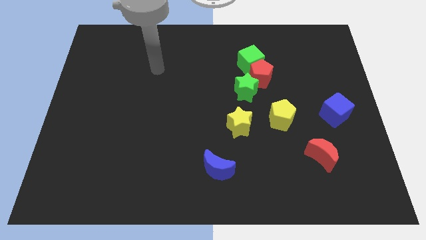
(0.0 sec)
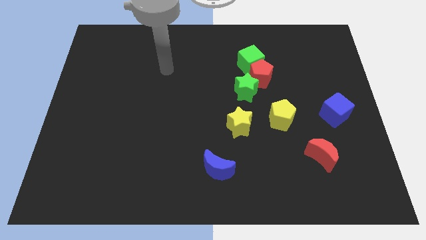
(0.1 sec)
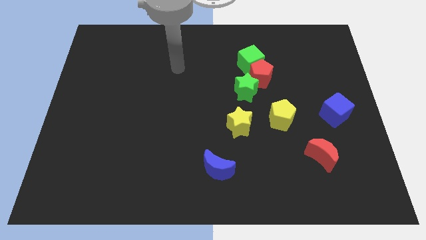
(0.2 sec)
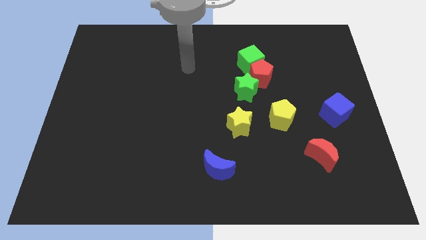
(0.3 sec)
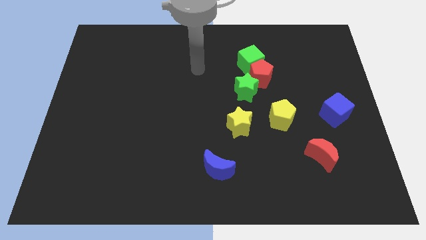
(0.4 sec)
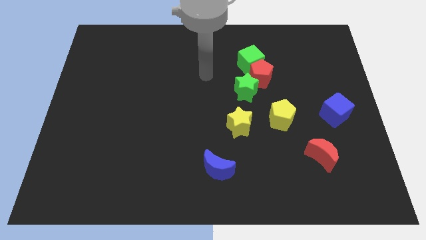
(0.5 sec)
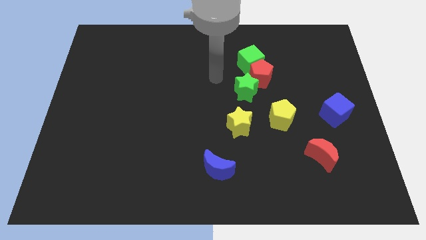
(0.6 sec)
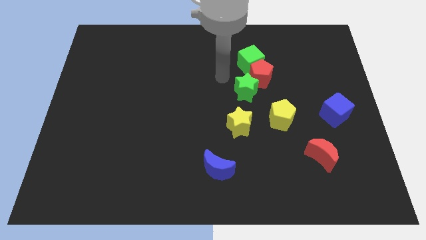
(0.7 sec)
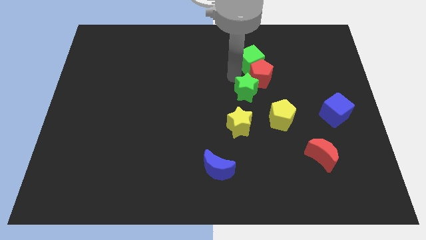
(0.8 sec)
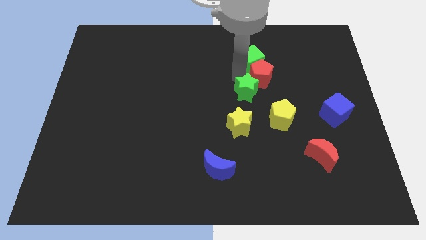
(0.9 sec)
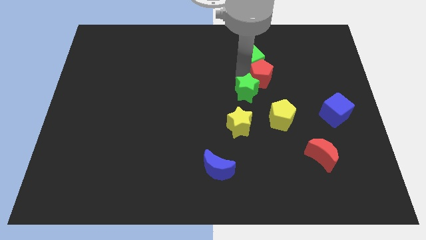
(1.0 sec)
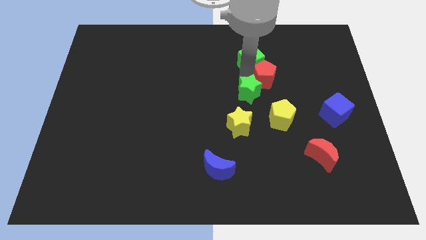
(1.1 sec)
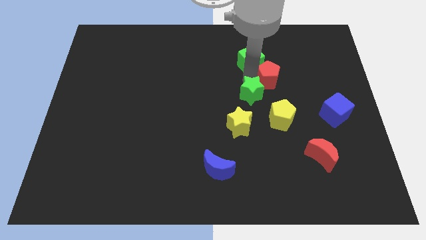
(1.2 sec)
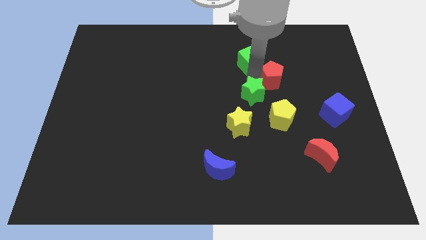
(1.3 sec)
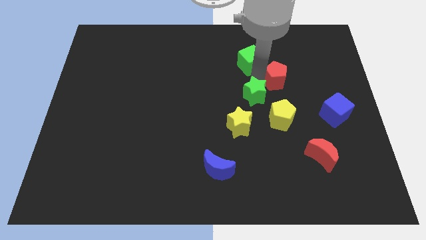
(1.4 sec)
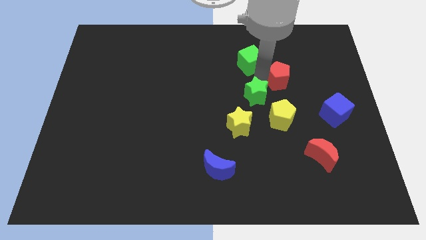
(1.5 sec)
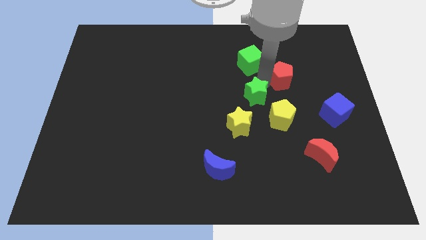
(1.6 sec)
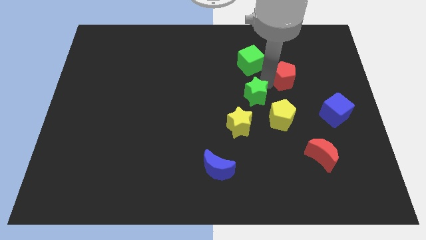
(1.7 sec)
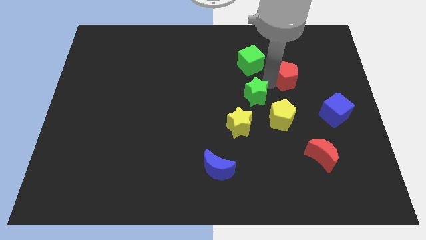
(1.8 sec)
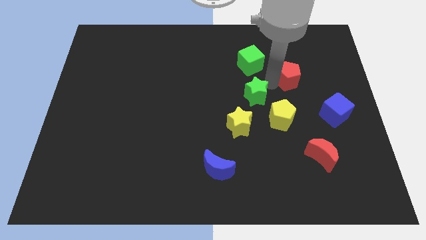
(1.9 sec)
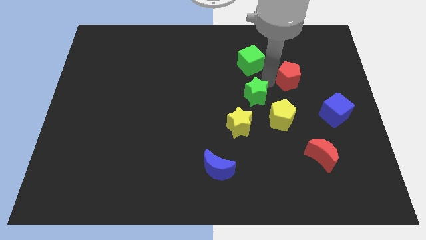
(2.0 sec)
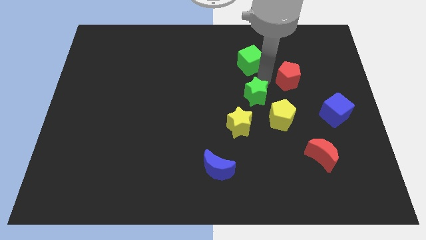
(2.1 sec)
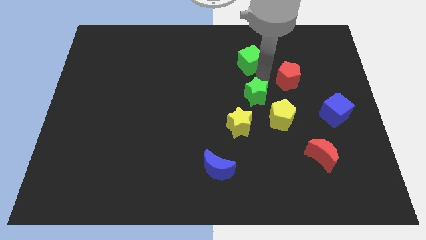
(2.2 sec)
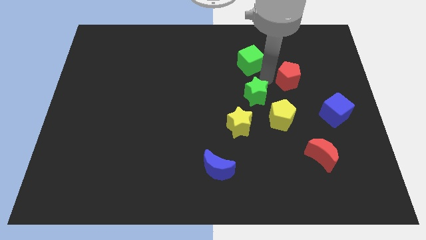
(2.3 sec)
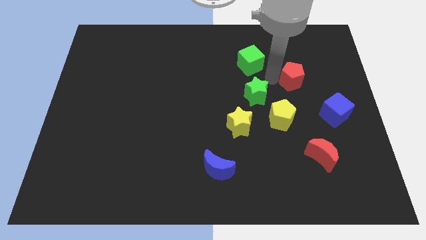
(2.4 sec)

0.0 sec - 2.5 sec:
pull the red pentagon apart from the green cube and green star

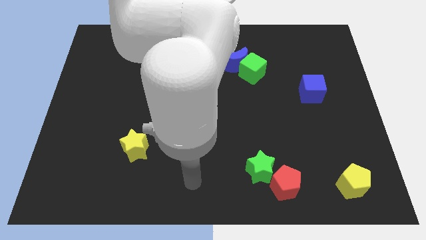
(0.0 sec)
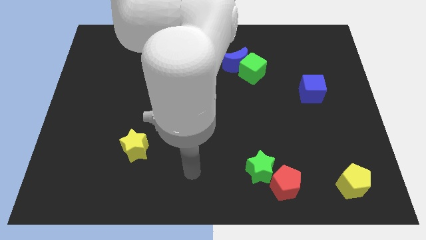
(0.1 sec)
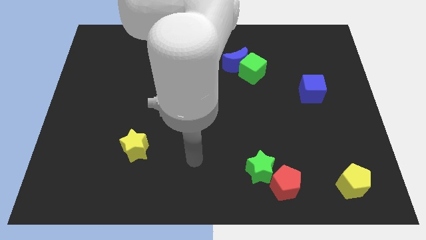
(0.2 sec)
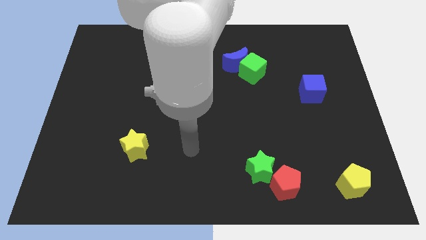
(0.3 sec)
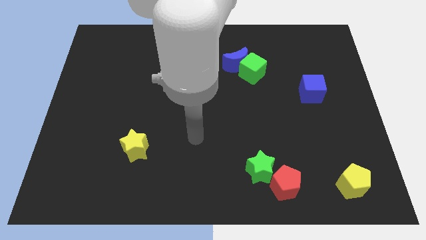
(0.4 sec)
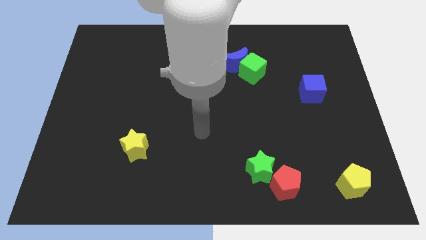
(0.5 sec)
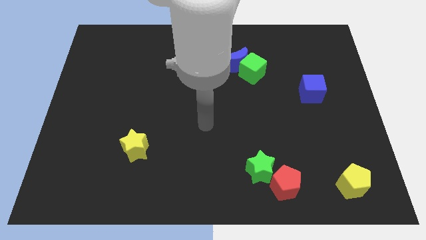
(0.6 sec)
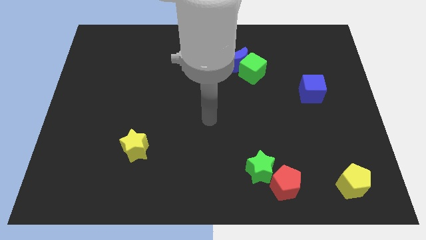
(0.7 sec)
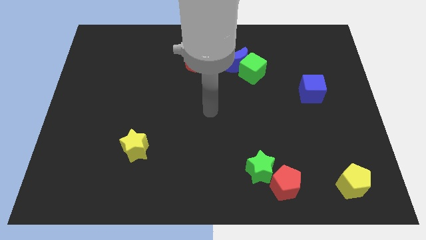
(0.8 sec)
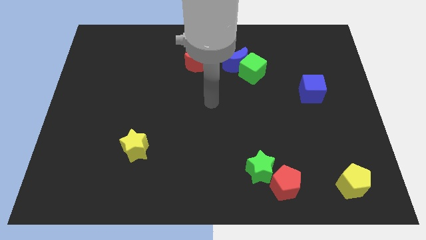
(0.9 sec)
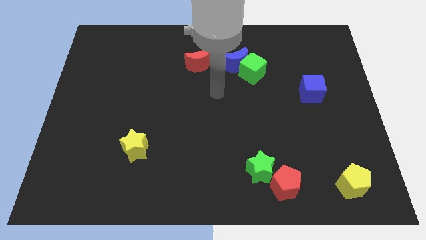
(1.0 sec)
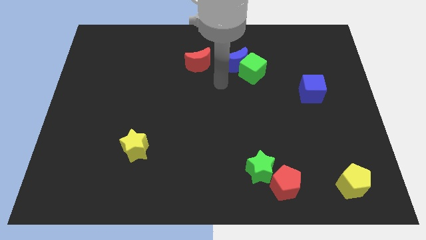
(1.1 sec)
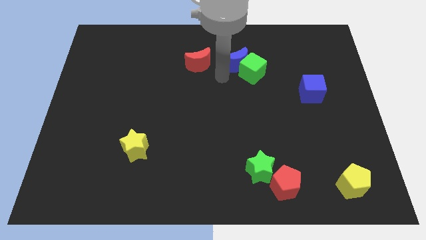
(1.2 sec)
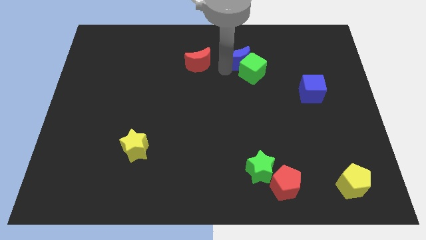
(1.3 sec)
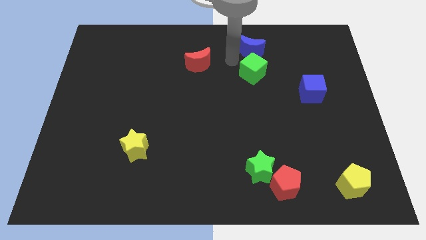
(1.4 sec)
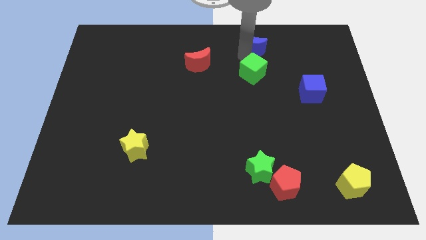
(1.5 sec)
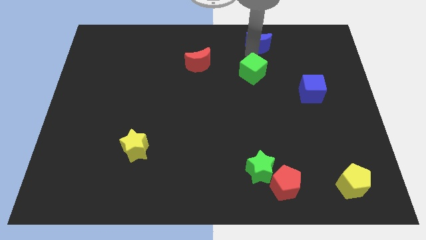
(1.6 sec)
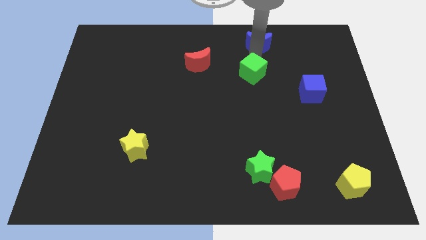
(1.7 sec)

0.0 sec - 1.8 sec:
separate the green cube from the blue moon

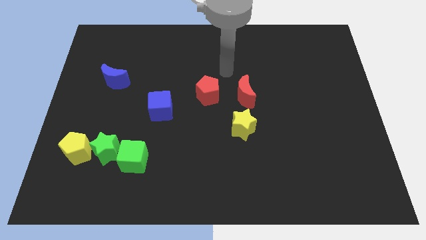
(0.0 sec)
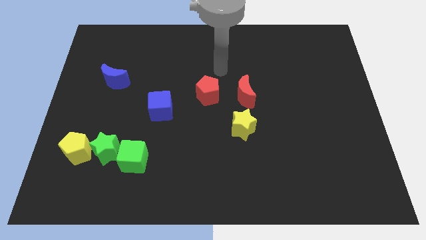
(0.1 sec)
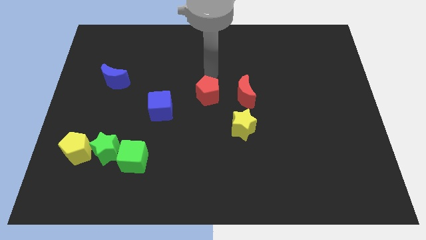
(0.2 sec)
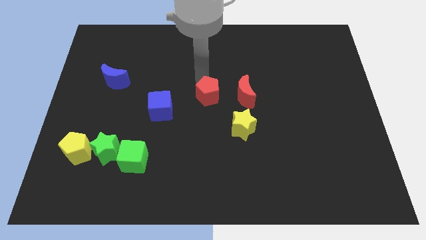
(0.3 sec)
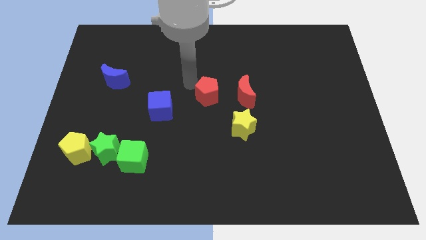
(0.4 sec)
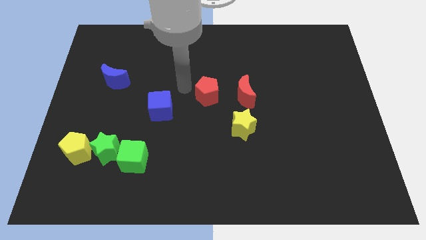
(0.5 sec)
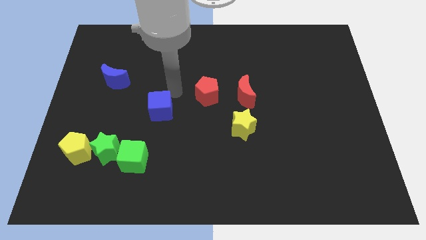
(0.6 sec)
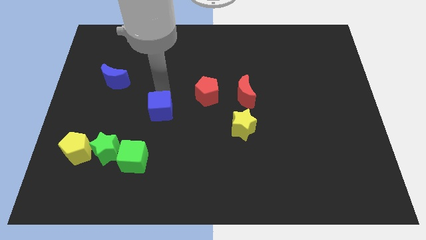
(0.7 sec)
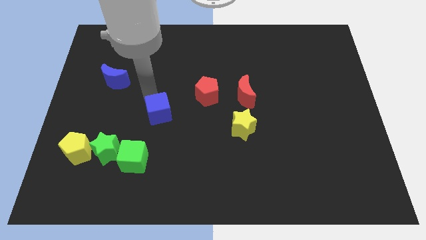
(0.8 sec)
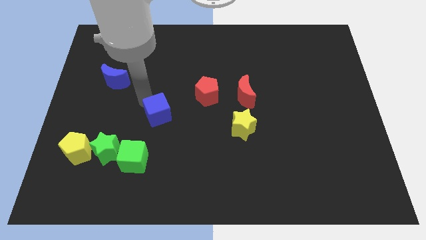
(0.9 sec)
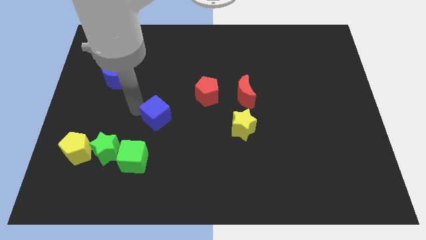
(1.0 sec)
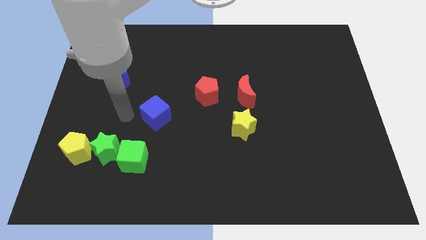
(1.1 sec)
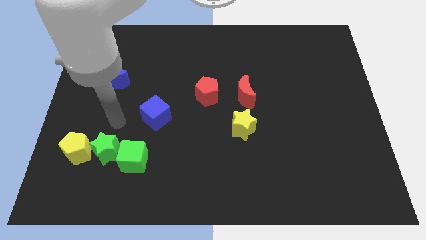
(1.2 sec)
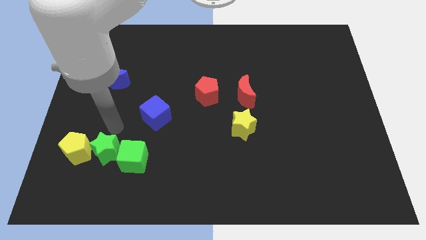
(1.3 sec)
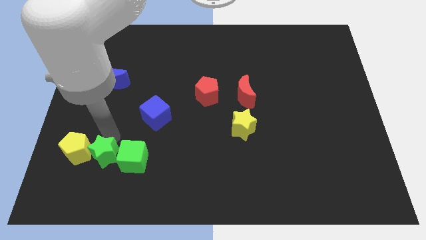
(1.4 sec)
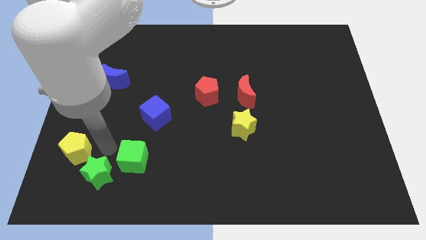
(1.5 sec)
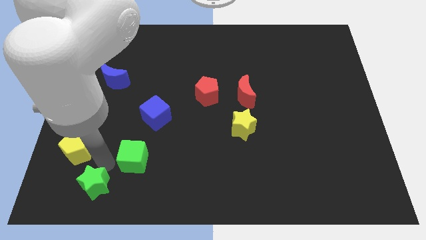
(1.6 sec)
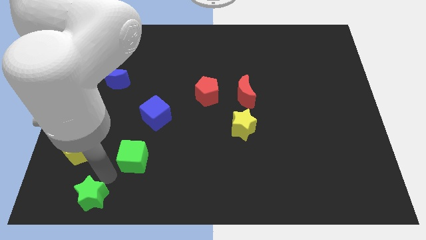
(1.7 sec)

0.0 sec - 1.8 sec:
move the green cube away from the green star

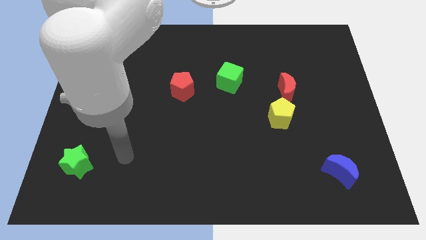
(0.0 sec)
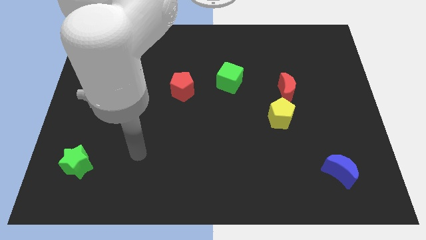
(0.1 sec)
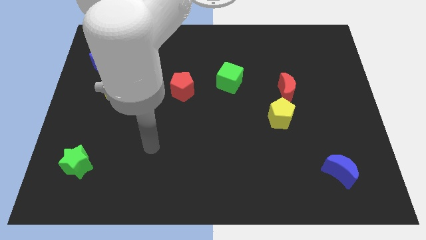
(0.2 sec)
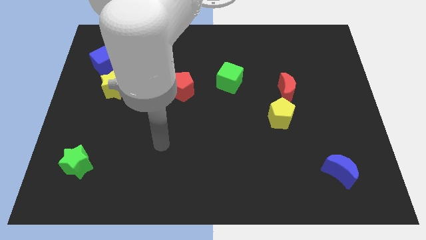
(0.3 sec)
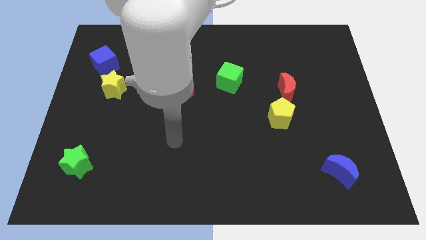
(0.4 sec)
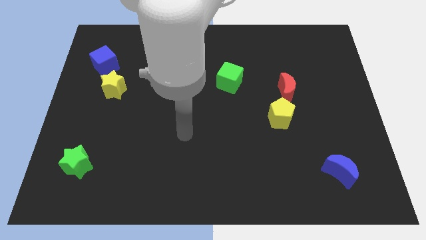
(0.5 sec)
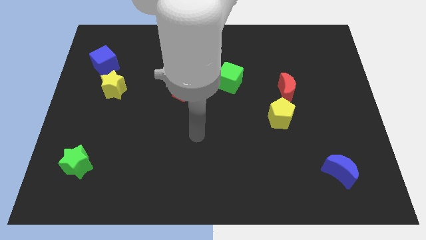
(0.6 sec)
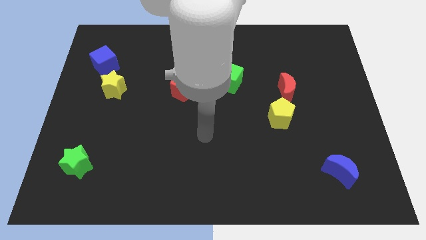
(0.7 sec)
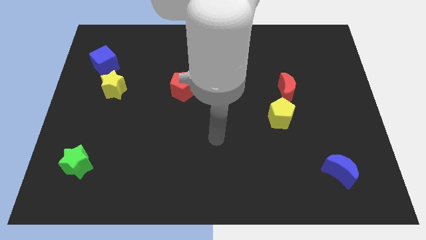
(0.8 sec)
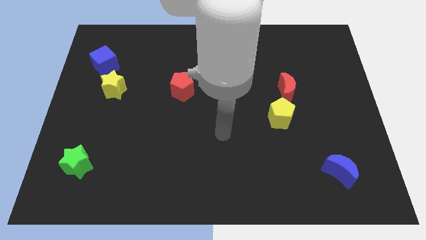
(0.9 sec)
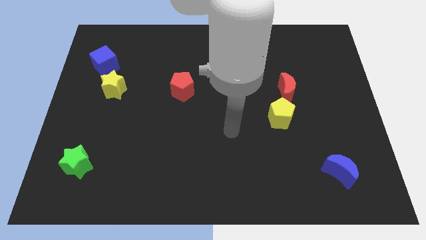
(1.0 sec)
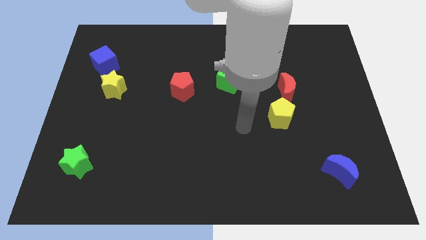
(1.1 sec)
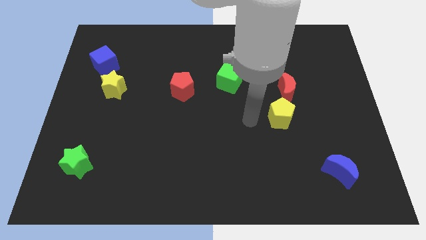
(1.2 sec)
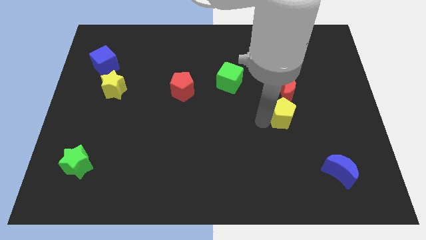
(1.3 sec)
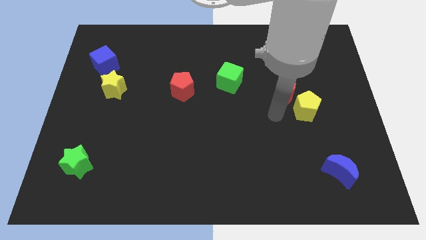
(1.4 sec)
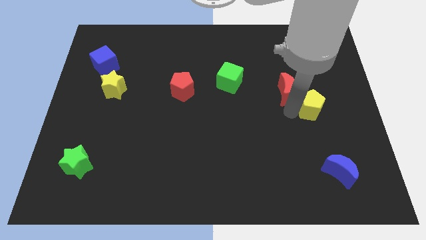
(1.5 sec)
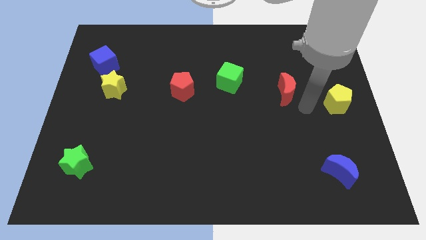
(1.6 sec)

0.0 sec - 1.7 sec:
move the red moon away from the yellow pentagon

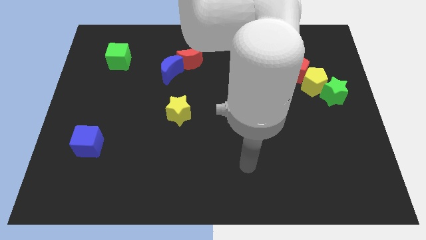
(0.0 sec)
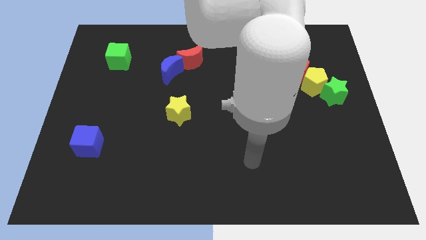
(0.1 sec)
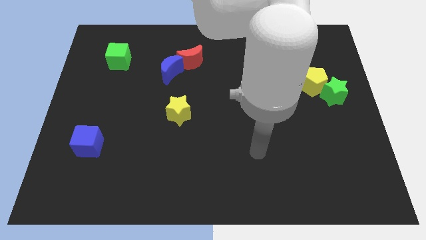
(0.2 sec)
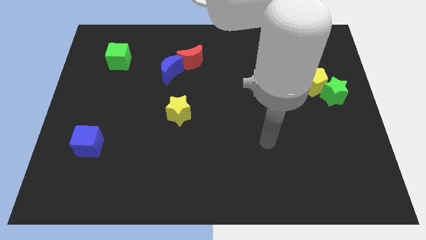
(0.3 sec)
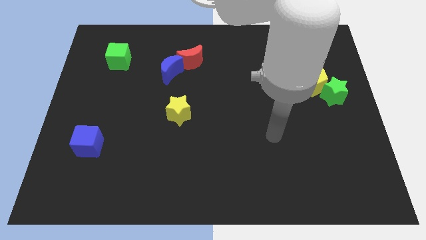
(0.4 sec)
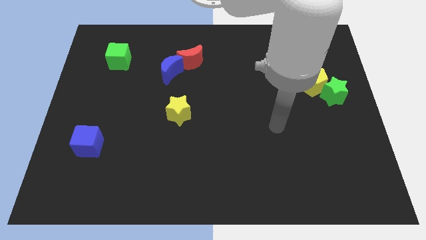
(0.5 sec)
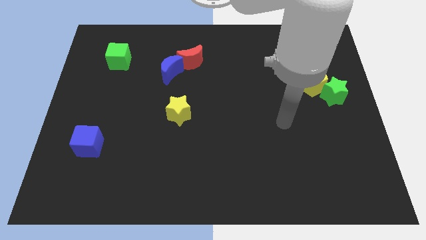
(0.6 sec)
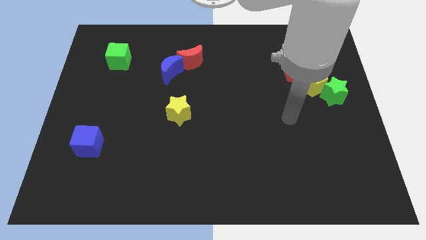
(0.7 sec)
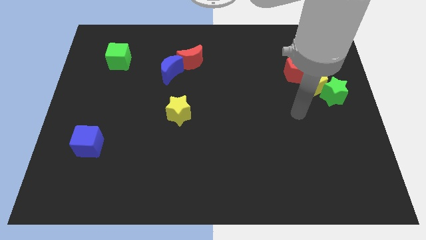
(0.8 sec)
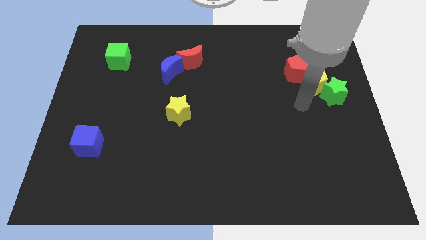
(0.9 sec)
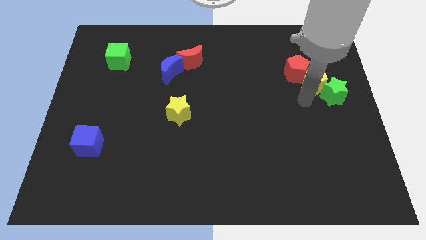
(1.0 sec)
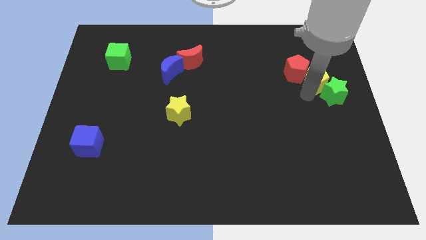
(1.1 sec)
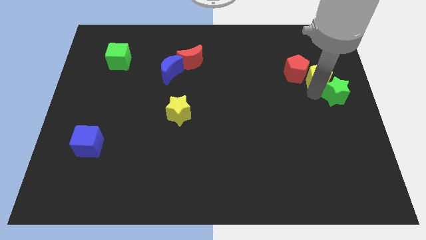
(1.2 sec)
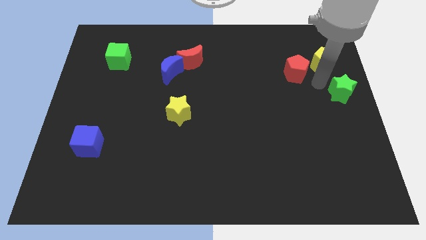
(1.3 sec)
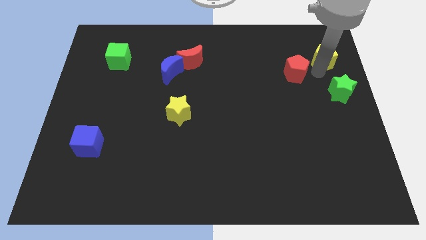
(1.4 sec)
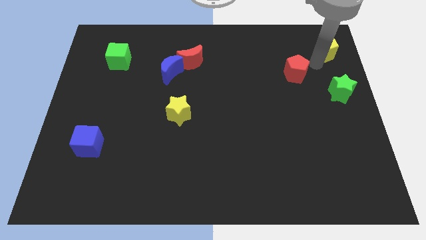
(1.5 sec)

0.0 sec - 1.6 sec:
separate the red pentagon from the yellow pentagon
